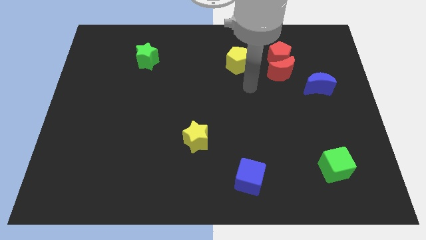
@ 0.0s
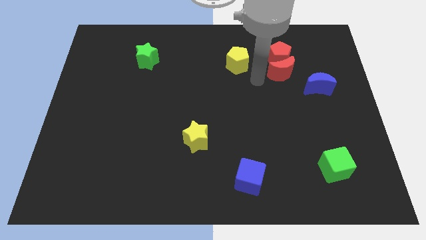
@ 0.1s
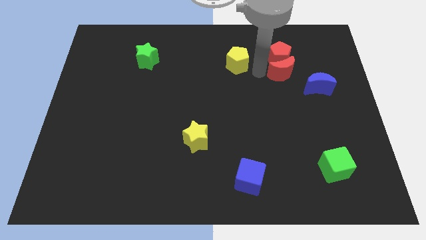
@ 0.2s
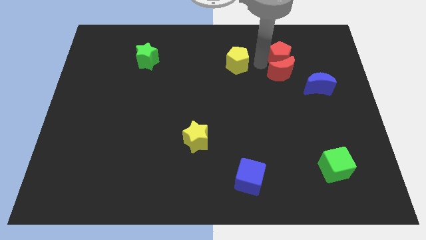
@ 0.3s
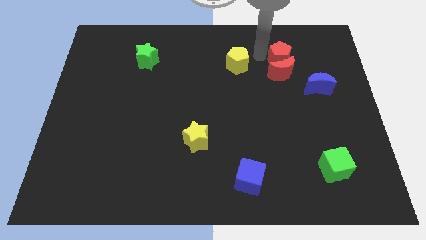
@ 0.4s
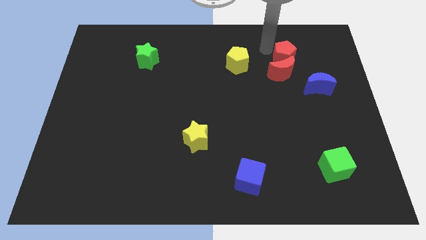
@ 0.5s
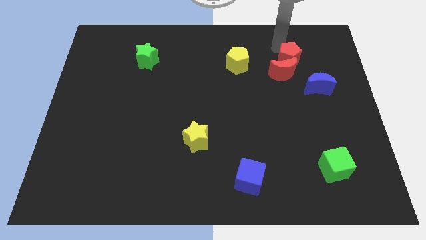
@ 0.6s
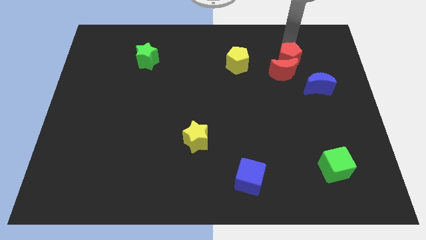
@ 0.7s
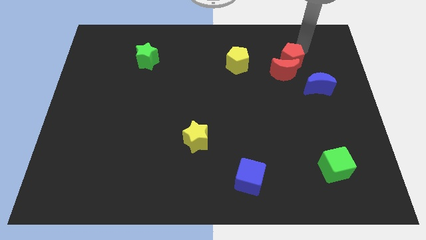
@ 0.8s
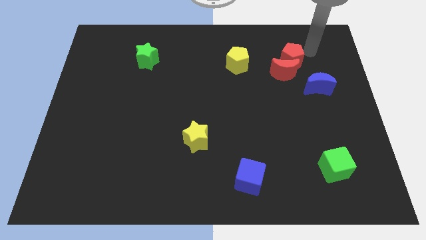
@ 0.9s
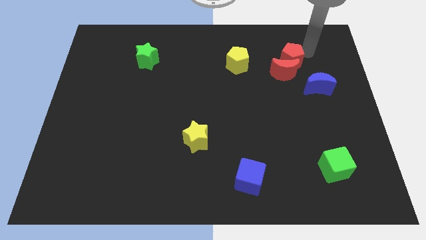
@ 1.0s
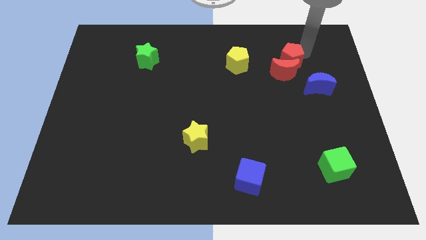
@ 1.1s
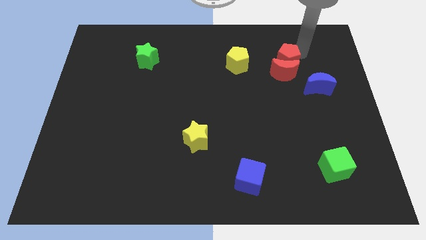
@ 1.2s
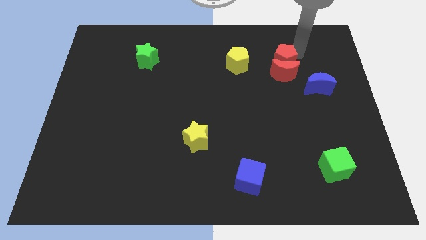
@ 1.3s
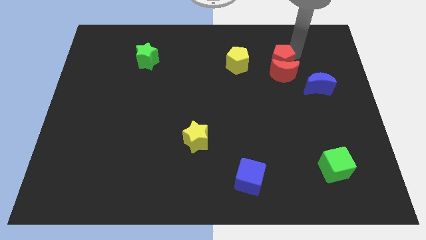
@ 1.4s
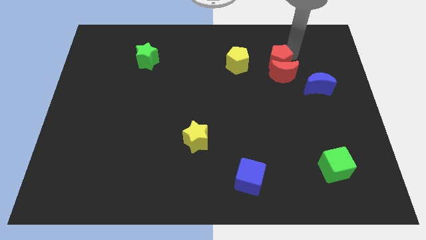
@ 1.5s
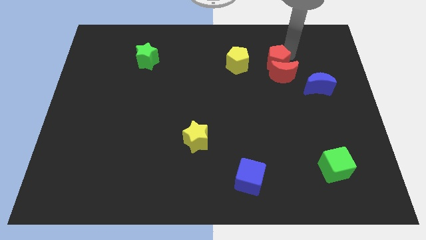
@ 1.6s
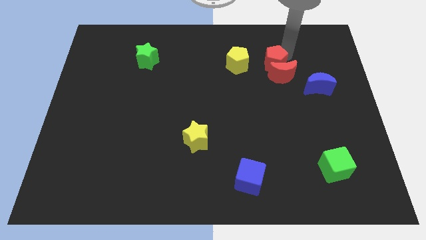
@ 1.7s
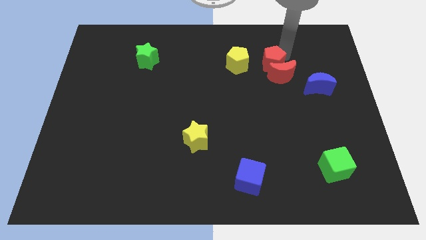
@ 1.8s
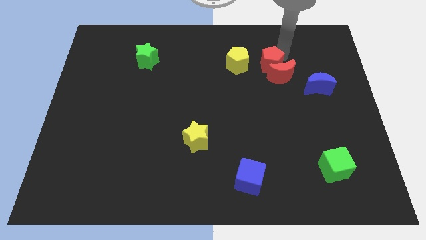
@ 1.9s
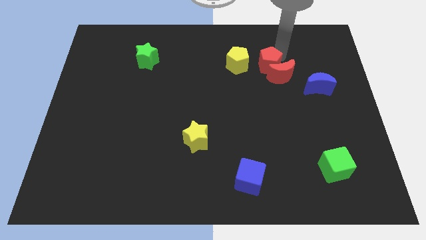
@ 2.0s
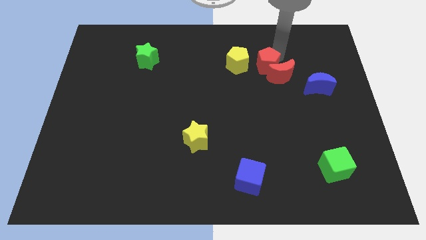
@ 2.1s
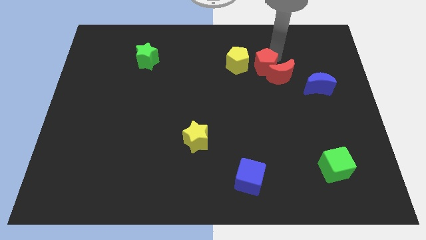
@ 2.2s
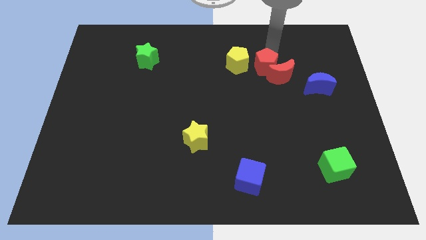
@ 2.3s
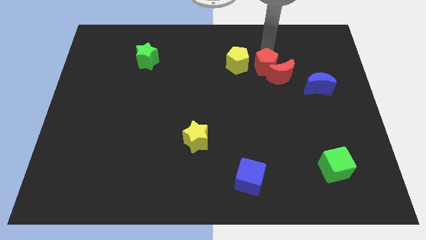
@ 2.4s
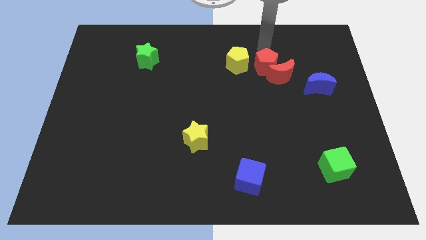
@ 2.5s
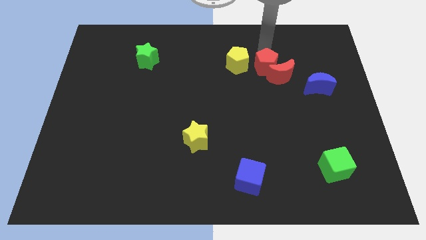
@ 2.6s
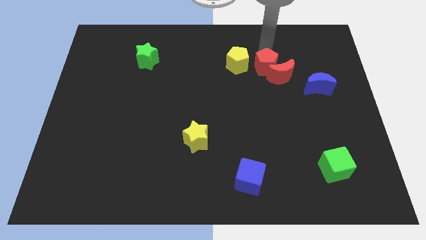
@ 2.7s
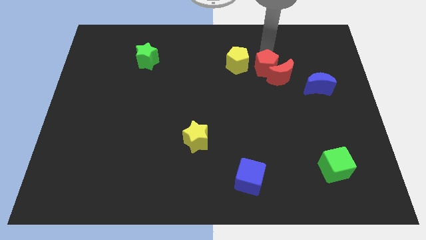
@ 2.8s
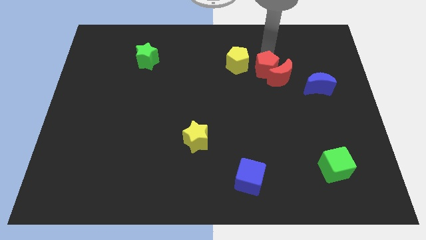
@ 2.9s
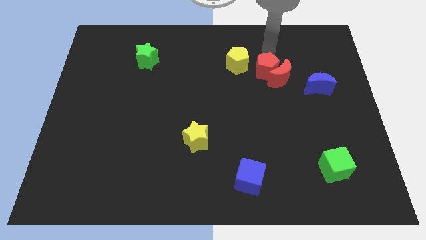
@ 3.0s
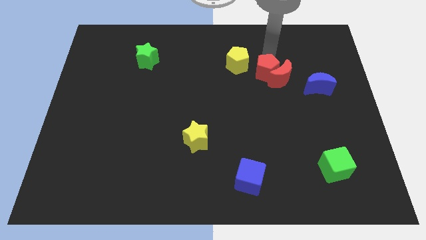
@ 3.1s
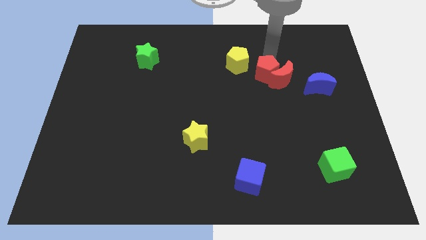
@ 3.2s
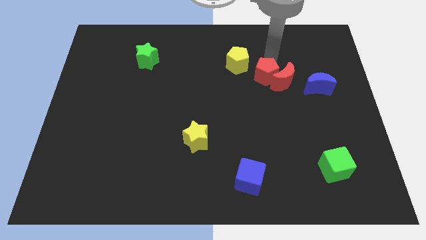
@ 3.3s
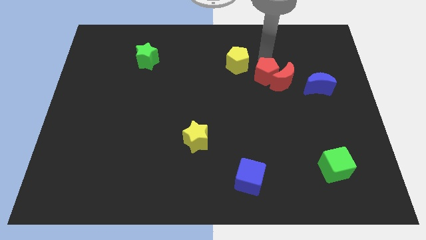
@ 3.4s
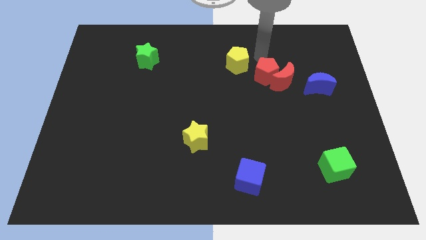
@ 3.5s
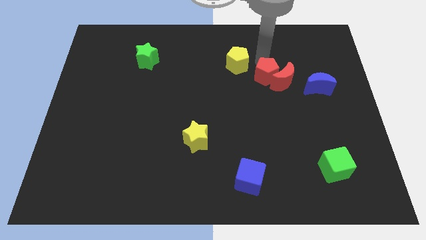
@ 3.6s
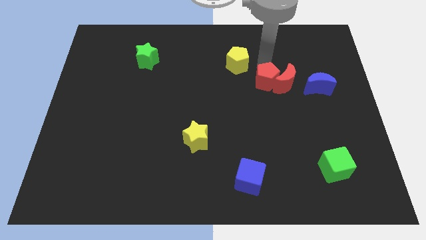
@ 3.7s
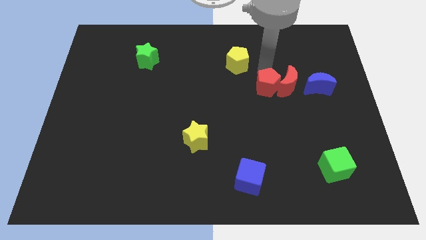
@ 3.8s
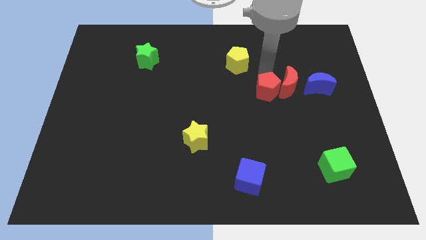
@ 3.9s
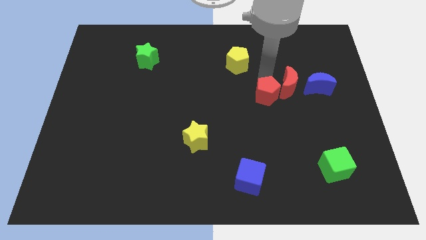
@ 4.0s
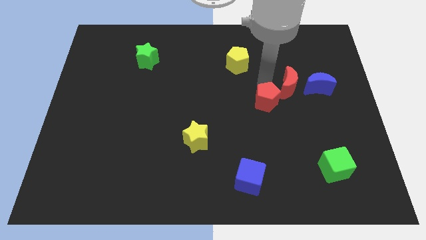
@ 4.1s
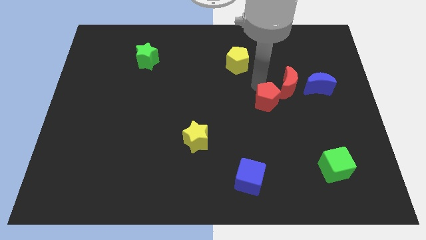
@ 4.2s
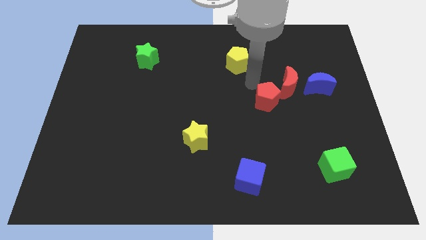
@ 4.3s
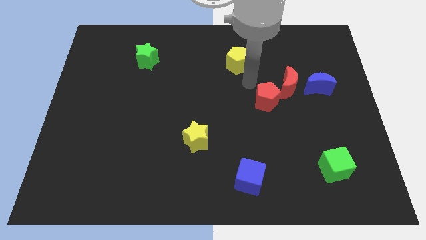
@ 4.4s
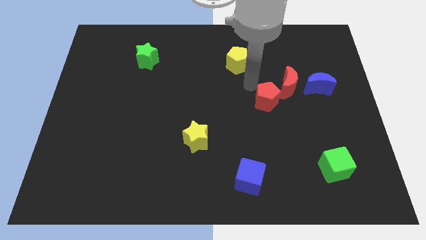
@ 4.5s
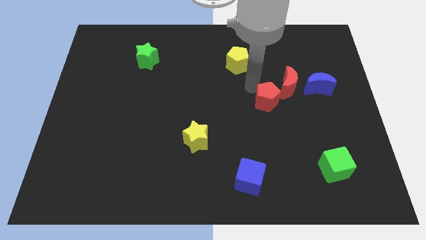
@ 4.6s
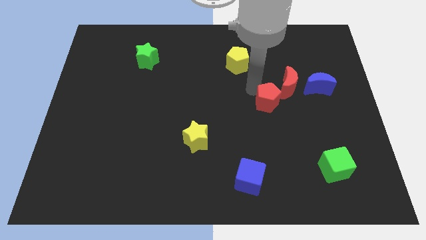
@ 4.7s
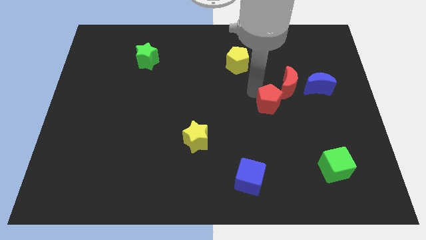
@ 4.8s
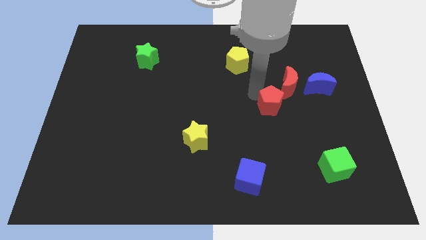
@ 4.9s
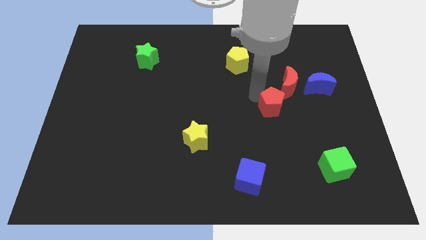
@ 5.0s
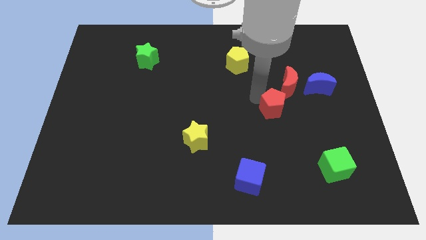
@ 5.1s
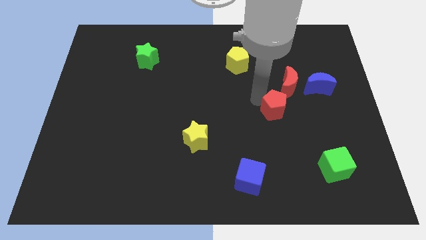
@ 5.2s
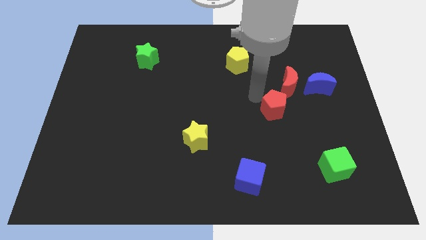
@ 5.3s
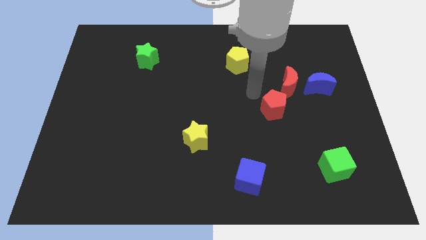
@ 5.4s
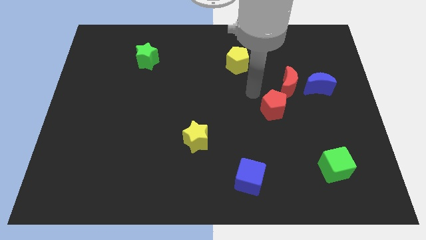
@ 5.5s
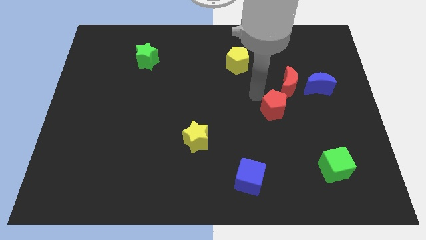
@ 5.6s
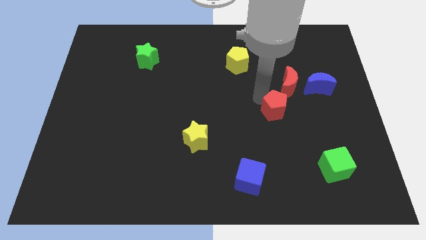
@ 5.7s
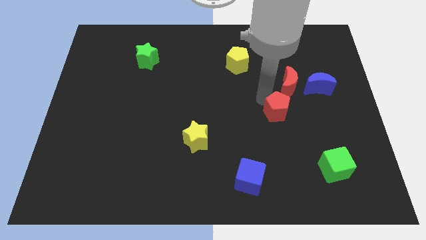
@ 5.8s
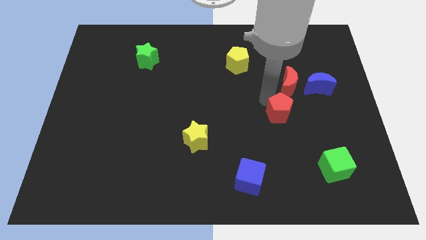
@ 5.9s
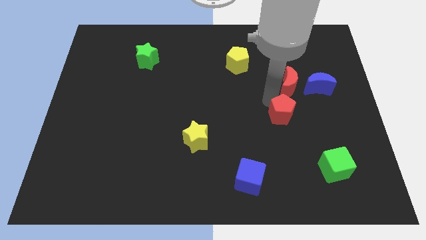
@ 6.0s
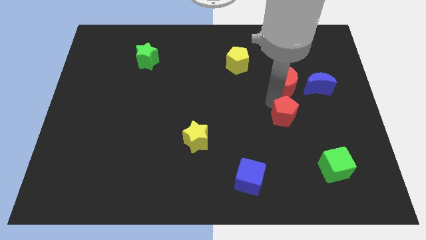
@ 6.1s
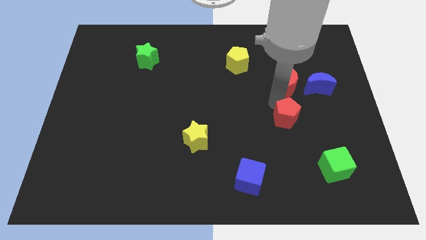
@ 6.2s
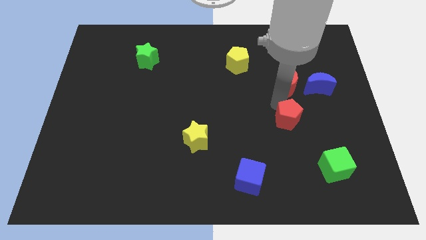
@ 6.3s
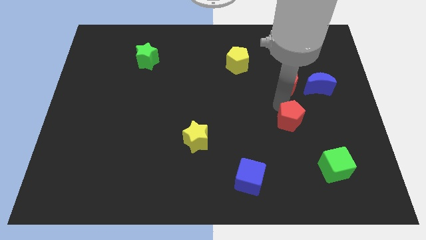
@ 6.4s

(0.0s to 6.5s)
push the red pentagon downwards

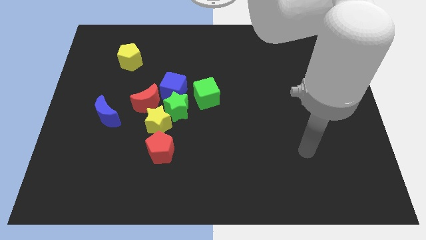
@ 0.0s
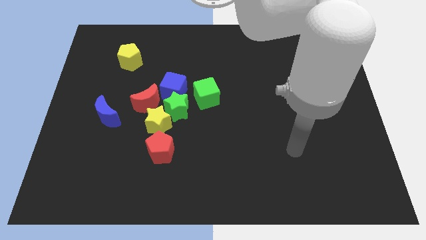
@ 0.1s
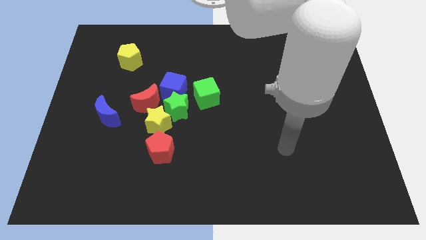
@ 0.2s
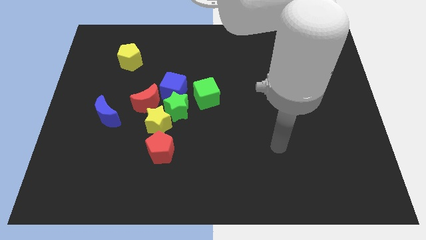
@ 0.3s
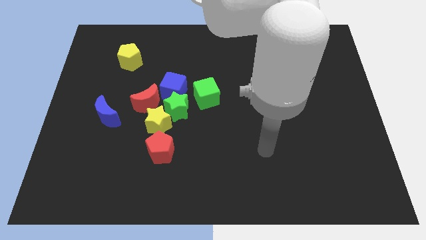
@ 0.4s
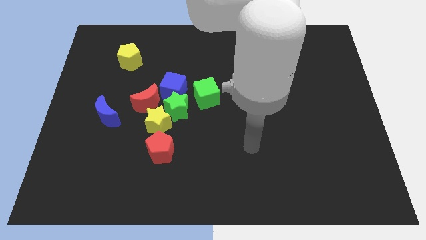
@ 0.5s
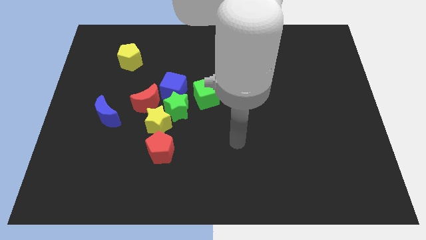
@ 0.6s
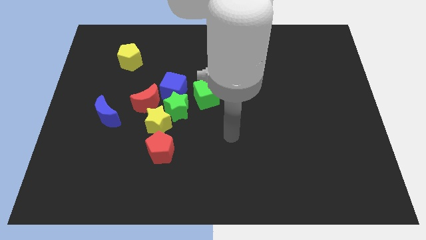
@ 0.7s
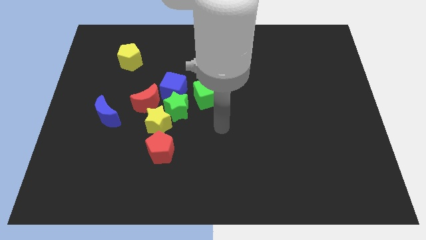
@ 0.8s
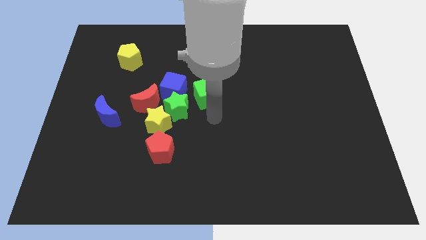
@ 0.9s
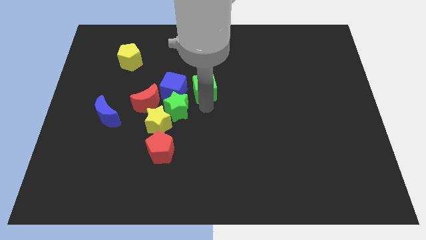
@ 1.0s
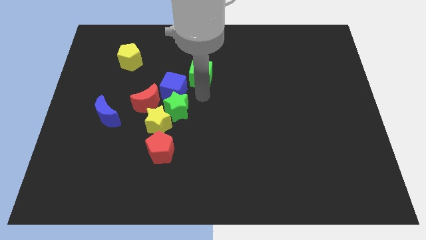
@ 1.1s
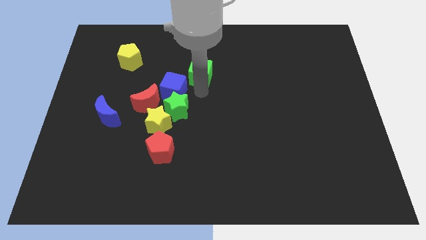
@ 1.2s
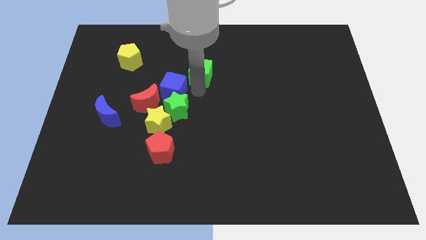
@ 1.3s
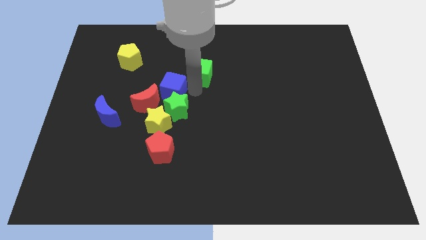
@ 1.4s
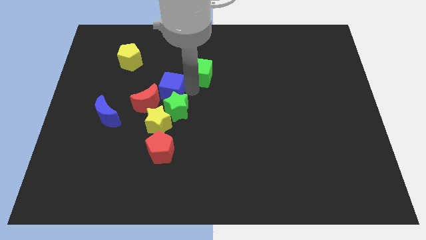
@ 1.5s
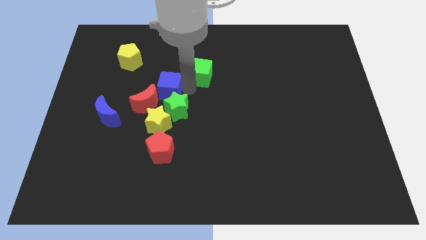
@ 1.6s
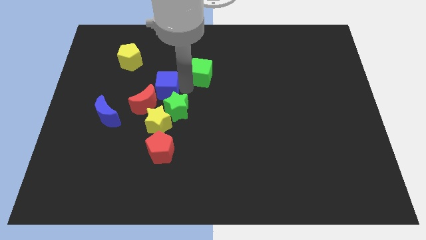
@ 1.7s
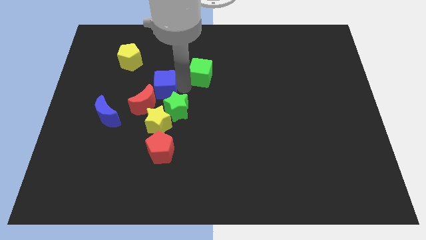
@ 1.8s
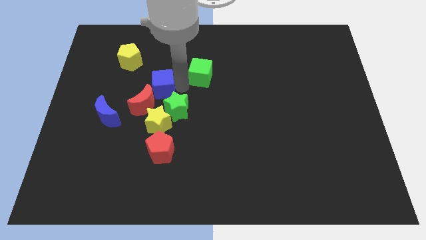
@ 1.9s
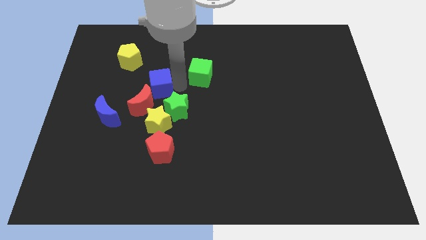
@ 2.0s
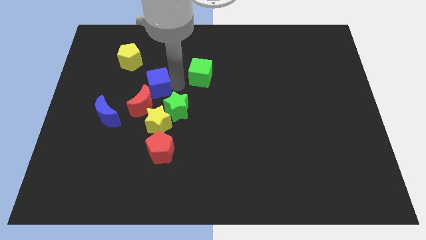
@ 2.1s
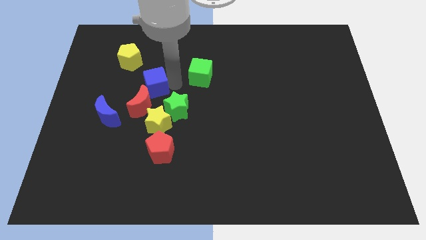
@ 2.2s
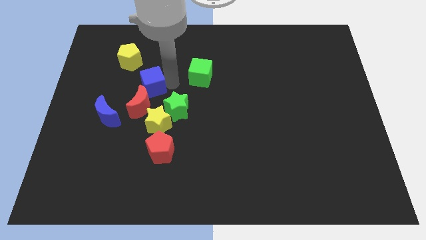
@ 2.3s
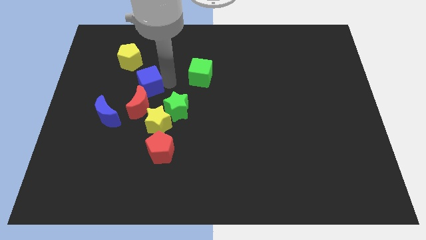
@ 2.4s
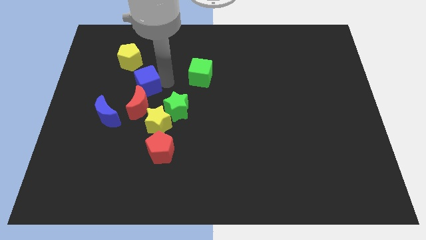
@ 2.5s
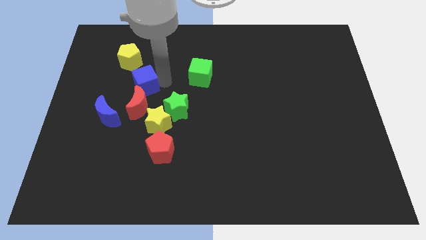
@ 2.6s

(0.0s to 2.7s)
move the blue cube a little bit to the left
